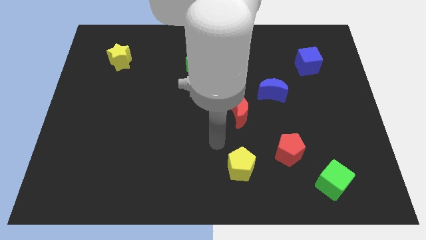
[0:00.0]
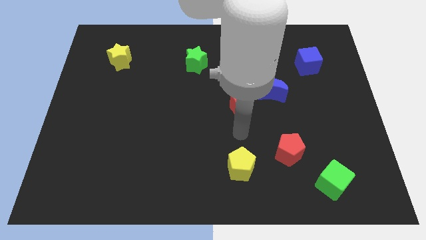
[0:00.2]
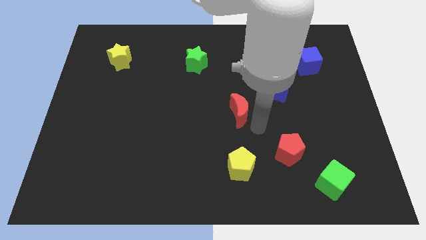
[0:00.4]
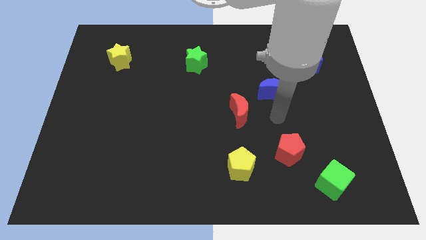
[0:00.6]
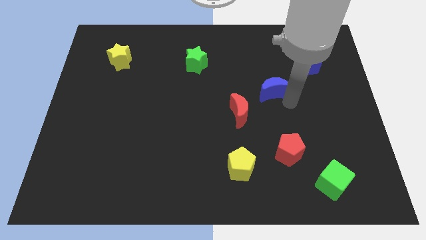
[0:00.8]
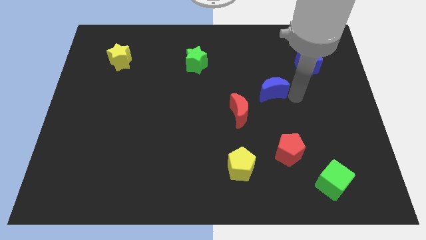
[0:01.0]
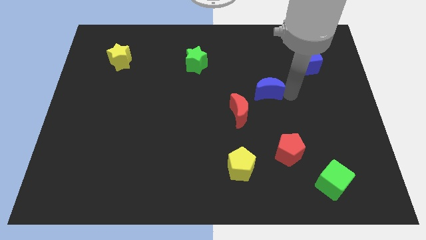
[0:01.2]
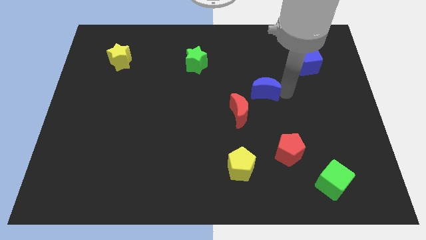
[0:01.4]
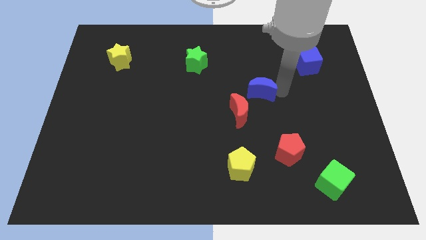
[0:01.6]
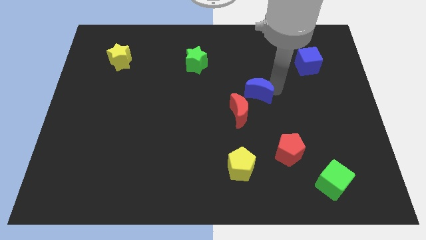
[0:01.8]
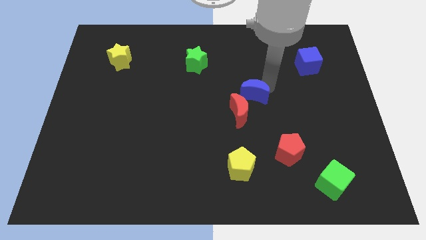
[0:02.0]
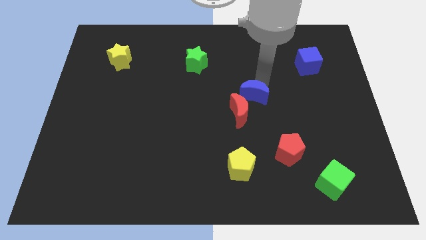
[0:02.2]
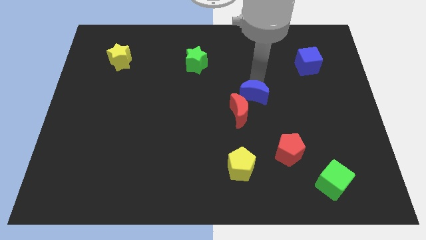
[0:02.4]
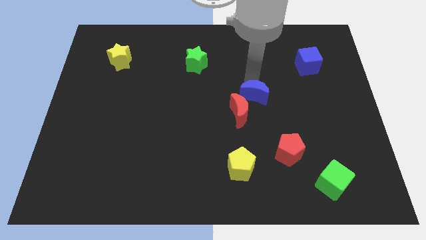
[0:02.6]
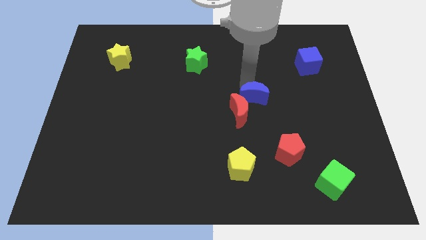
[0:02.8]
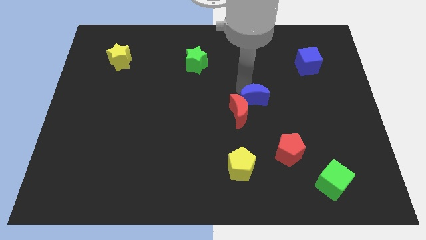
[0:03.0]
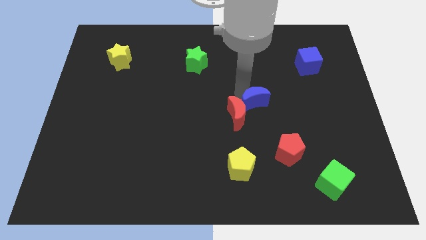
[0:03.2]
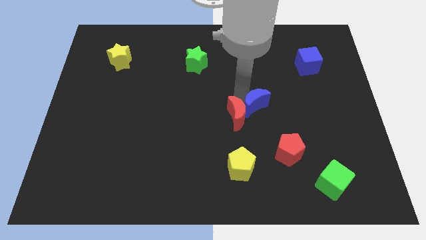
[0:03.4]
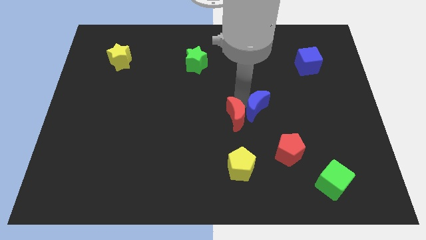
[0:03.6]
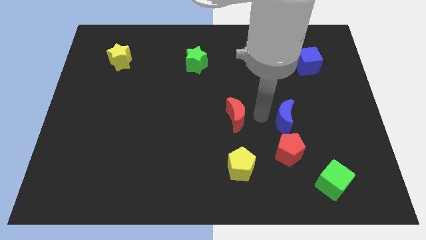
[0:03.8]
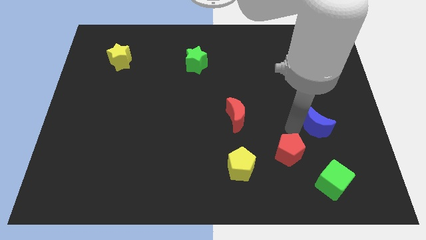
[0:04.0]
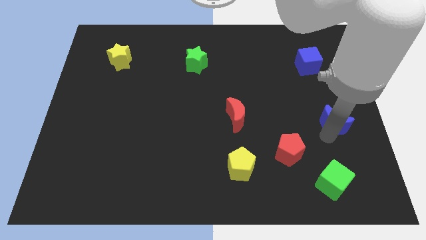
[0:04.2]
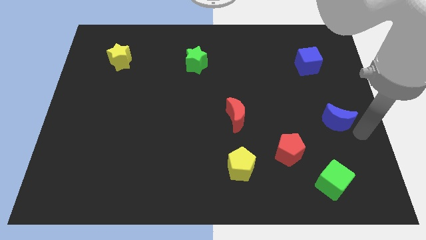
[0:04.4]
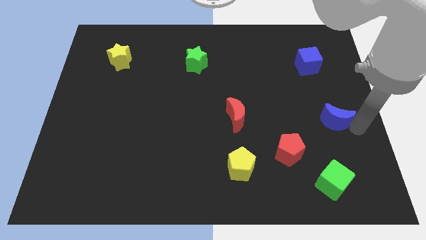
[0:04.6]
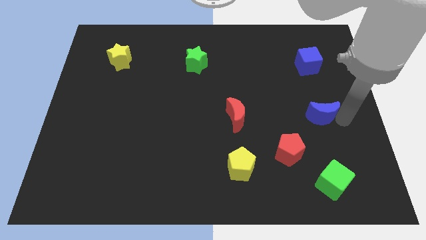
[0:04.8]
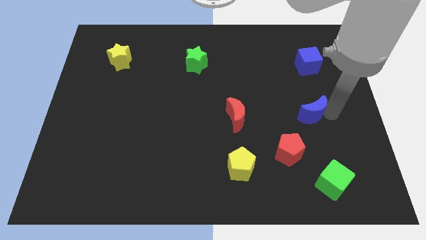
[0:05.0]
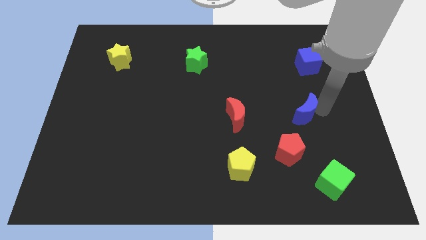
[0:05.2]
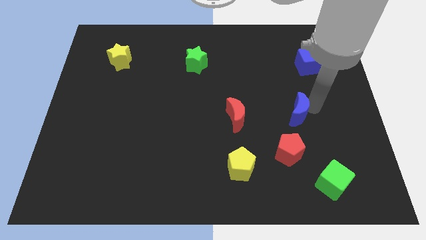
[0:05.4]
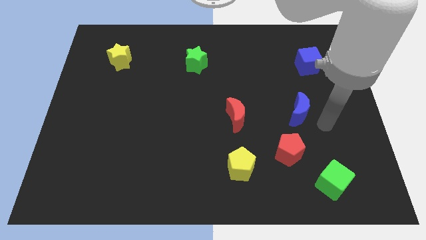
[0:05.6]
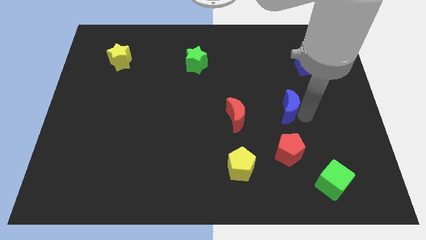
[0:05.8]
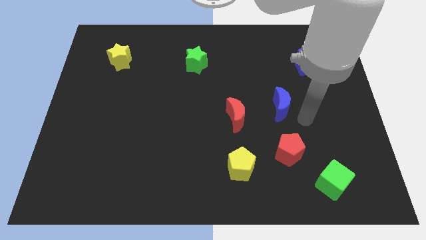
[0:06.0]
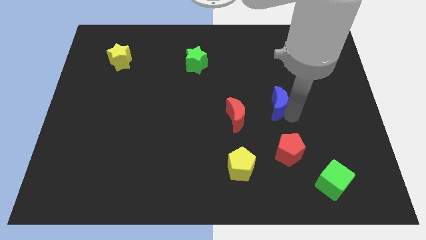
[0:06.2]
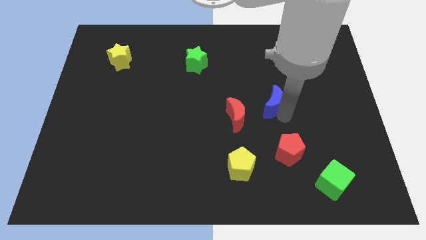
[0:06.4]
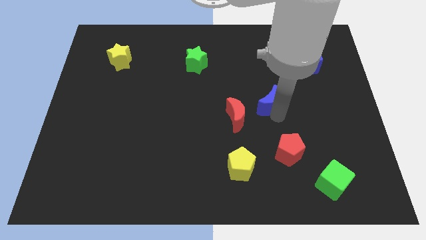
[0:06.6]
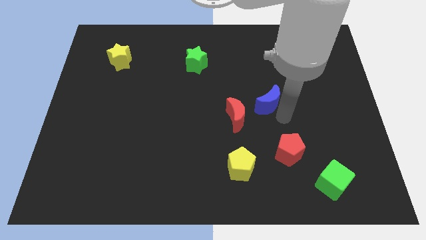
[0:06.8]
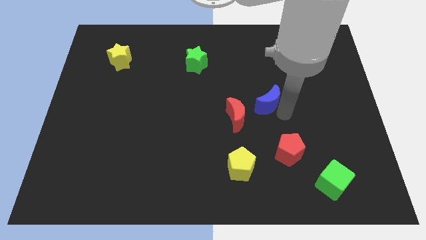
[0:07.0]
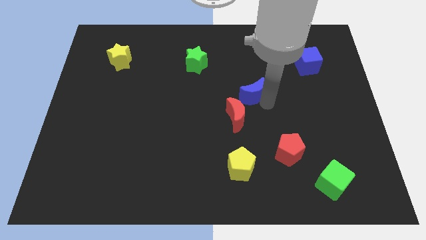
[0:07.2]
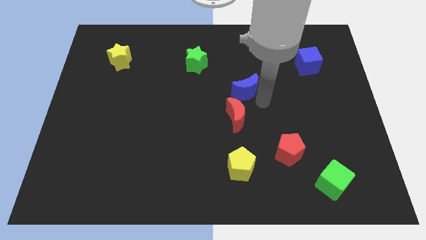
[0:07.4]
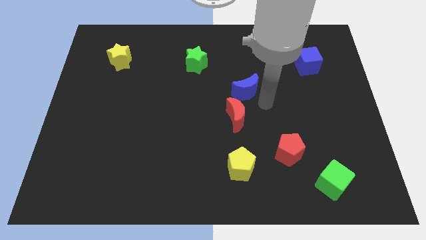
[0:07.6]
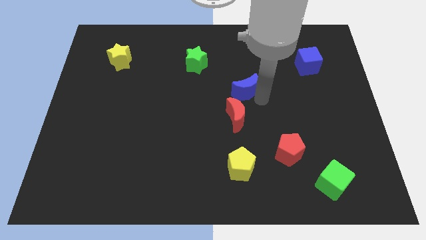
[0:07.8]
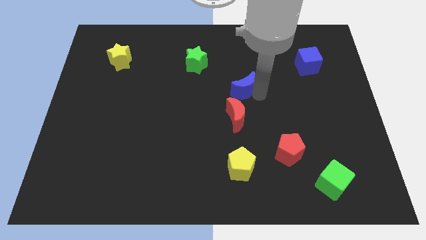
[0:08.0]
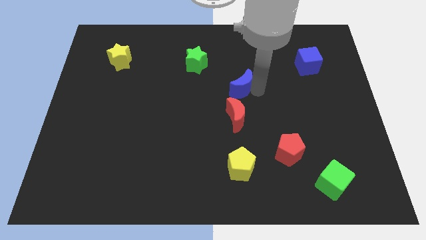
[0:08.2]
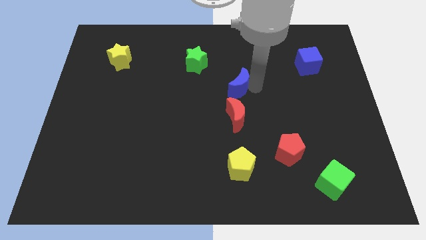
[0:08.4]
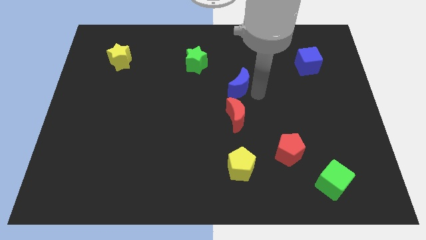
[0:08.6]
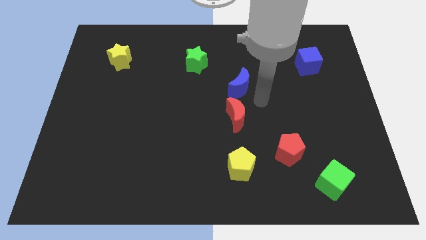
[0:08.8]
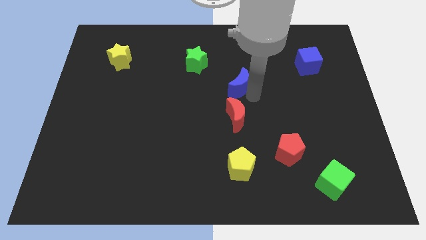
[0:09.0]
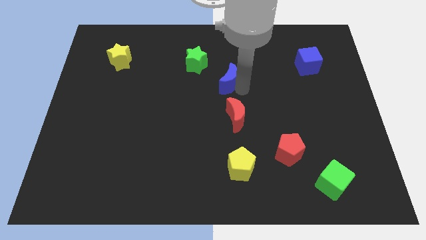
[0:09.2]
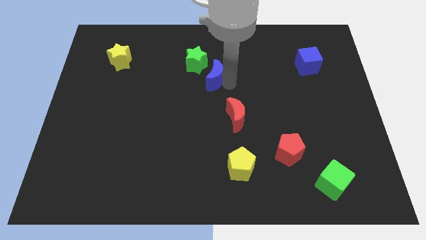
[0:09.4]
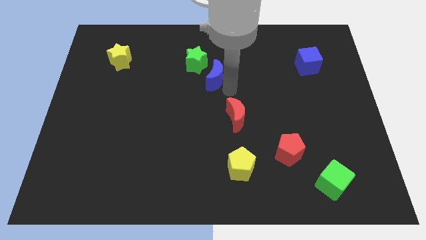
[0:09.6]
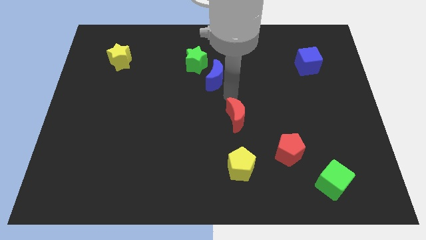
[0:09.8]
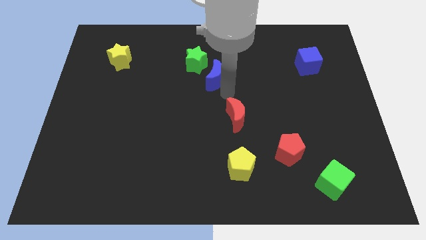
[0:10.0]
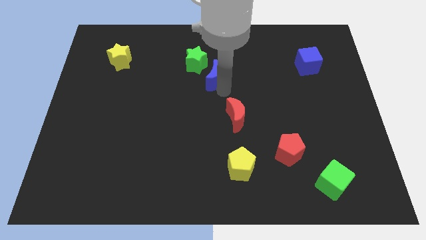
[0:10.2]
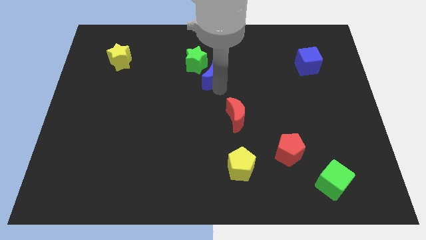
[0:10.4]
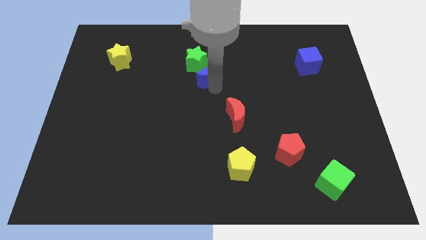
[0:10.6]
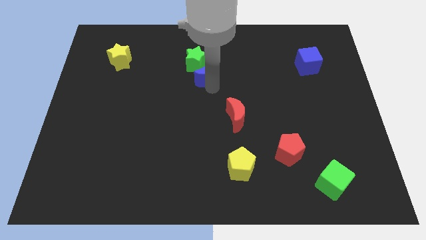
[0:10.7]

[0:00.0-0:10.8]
move the blue moon to the green star

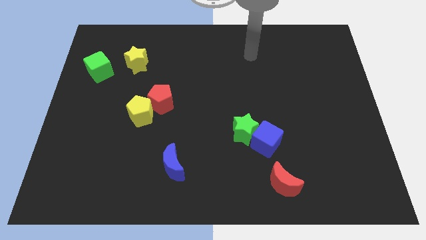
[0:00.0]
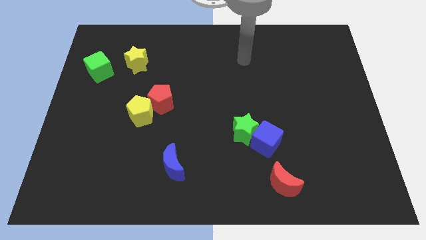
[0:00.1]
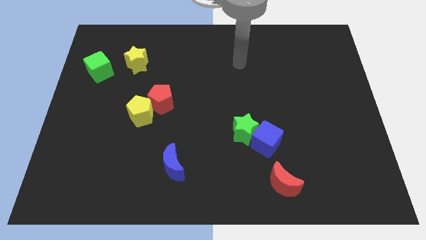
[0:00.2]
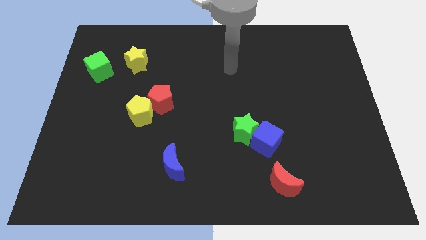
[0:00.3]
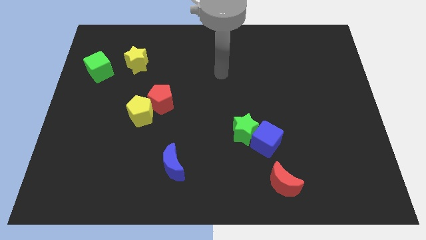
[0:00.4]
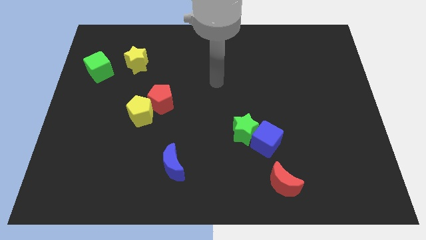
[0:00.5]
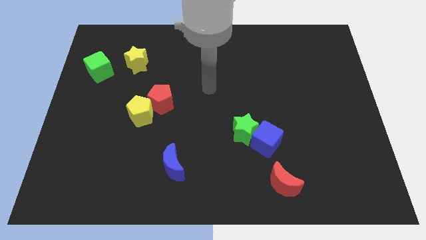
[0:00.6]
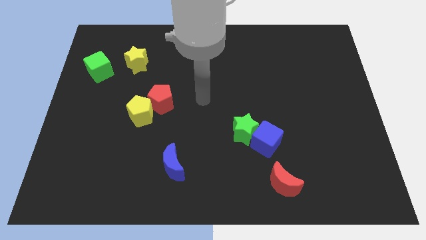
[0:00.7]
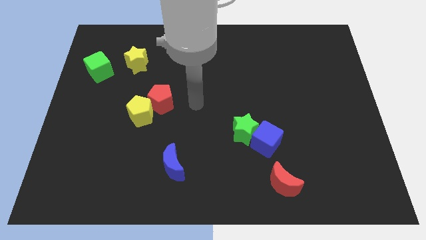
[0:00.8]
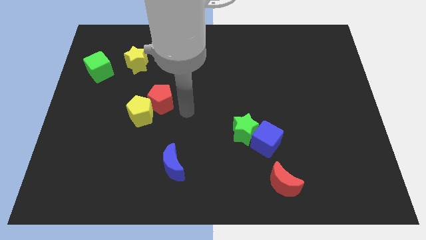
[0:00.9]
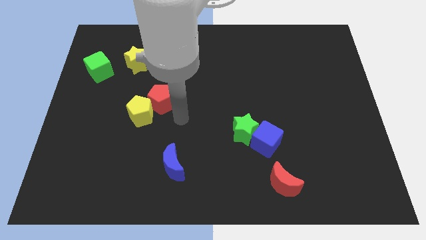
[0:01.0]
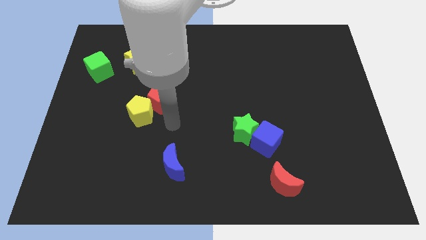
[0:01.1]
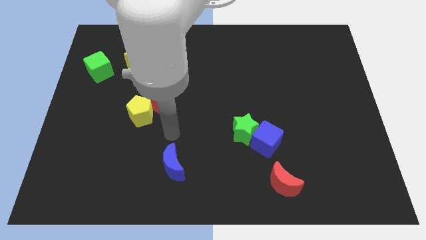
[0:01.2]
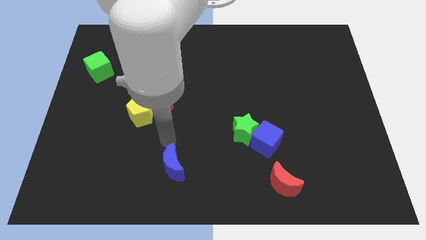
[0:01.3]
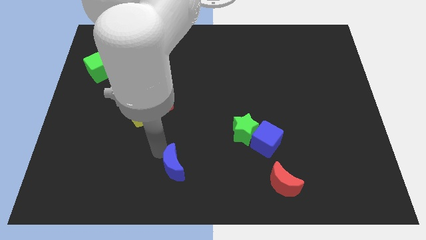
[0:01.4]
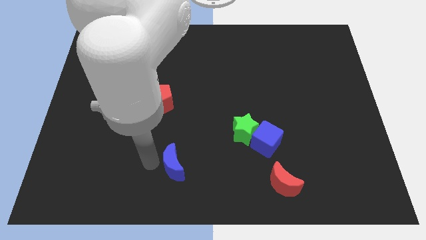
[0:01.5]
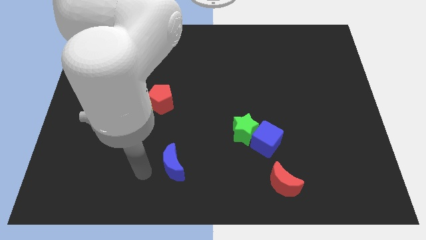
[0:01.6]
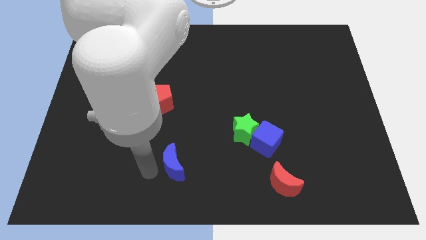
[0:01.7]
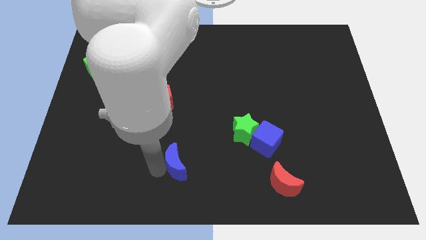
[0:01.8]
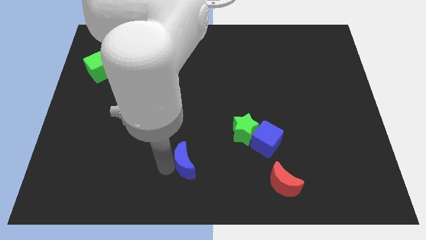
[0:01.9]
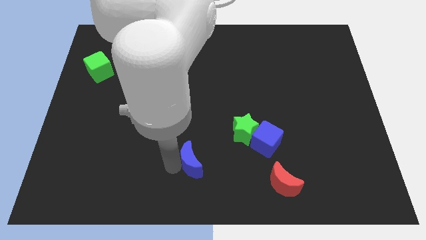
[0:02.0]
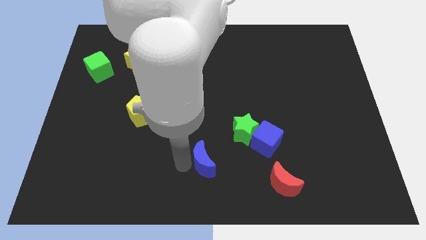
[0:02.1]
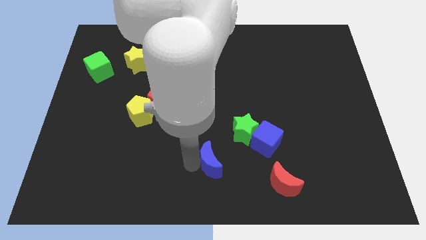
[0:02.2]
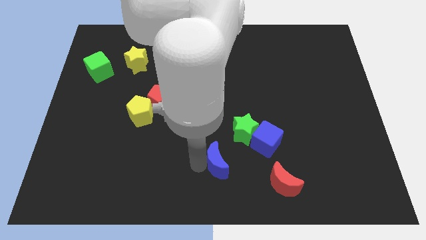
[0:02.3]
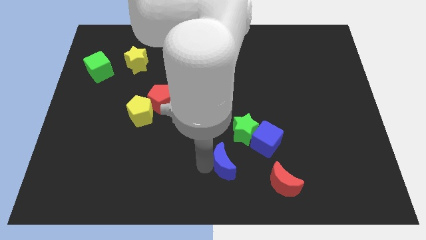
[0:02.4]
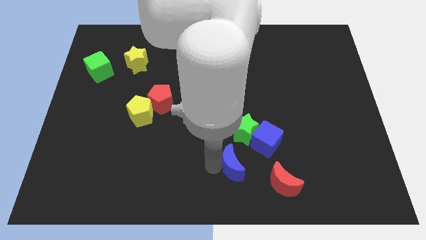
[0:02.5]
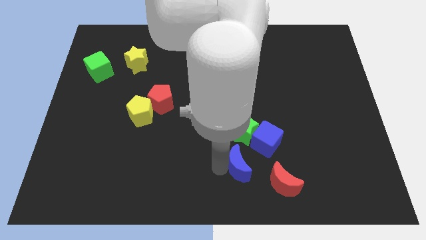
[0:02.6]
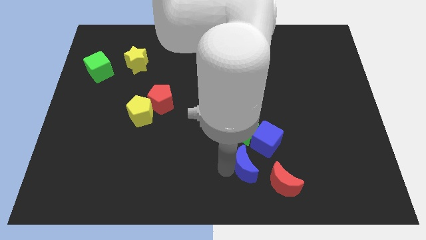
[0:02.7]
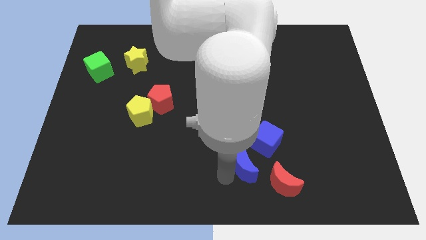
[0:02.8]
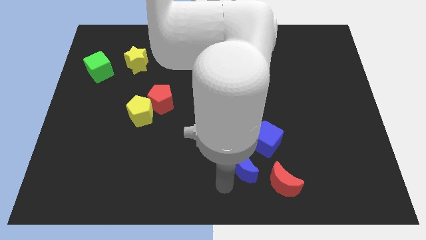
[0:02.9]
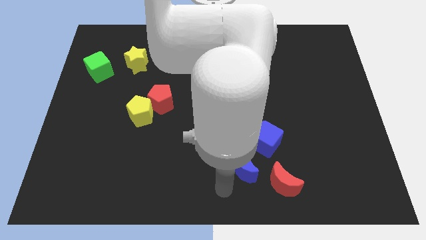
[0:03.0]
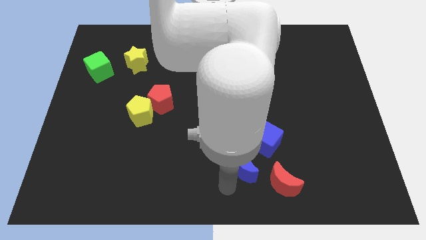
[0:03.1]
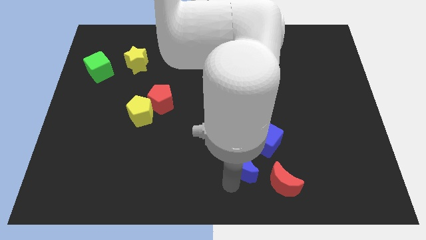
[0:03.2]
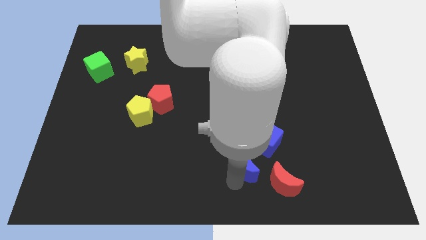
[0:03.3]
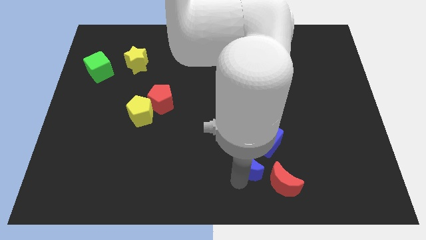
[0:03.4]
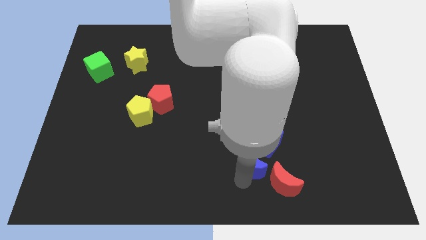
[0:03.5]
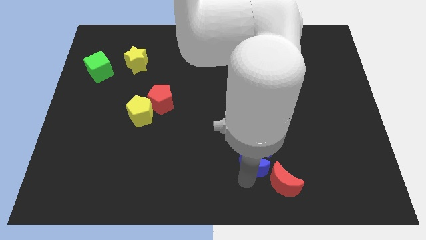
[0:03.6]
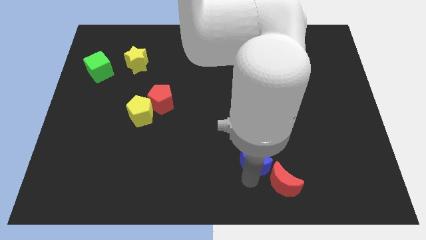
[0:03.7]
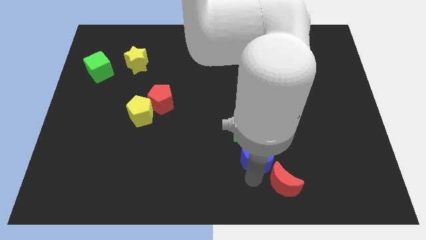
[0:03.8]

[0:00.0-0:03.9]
move the blue moon next to the blue cube
